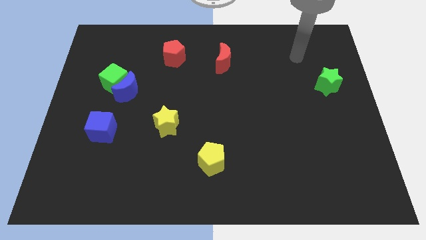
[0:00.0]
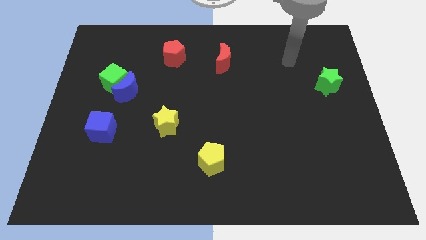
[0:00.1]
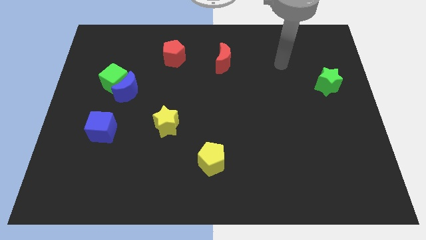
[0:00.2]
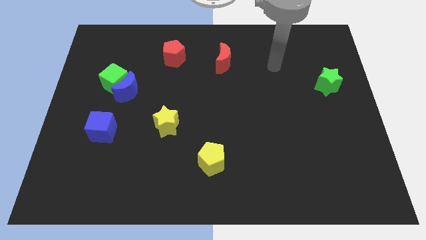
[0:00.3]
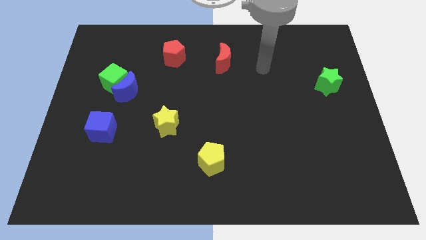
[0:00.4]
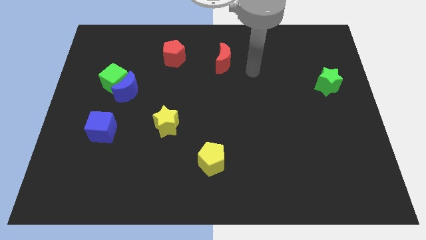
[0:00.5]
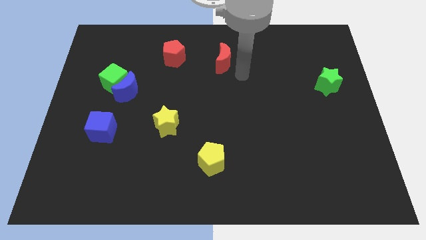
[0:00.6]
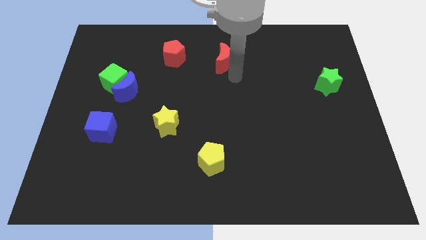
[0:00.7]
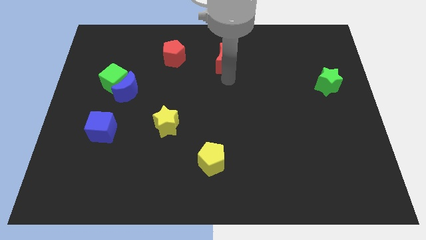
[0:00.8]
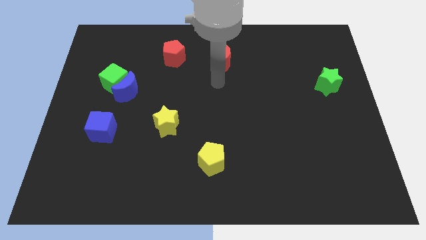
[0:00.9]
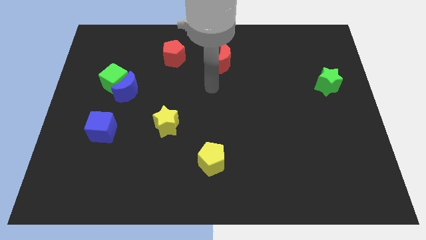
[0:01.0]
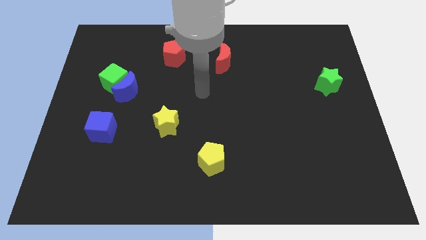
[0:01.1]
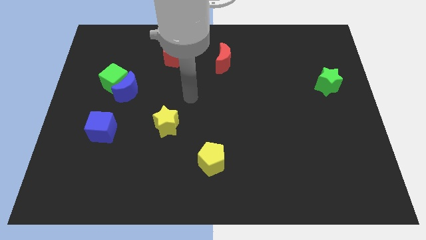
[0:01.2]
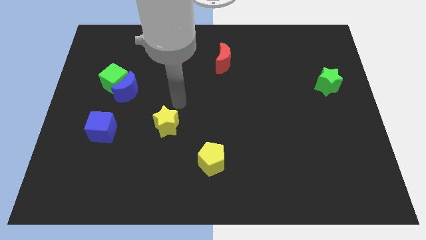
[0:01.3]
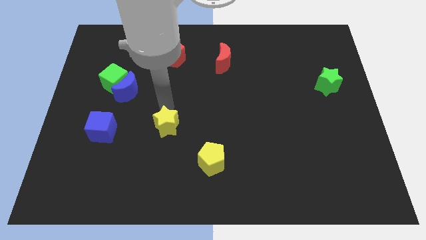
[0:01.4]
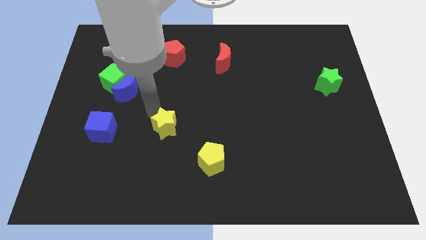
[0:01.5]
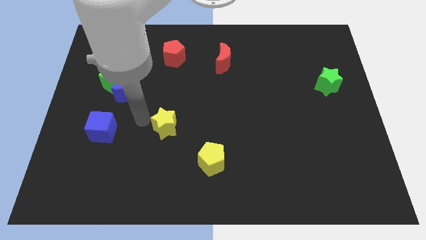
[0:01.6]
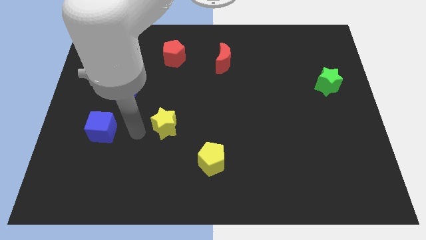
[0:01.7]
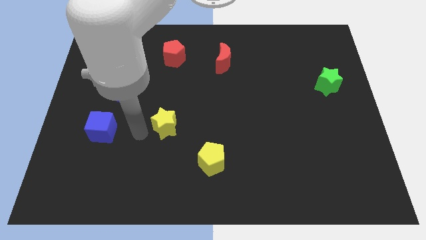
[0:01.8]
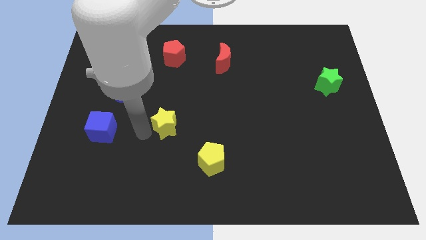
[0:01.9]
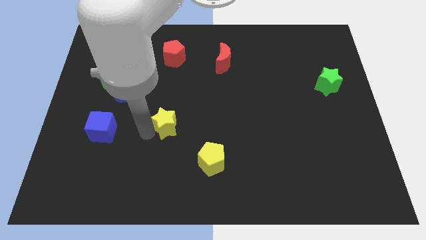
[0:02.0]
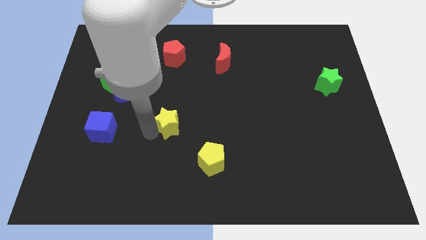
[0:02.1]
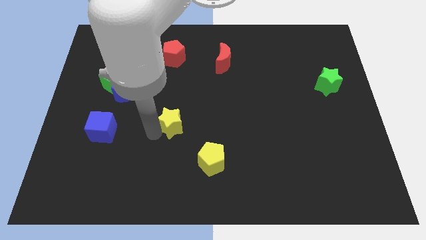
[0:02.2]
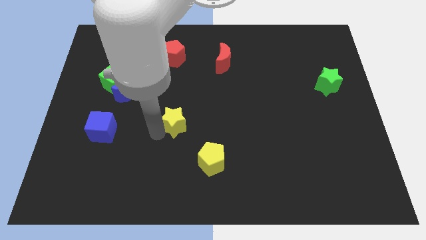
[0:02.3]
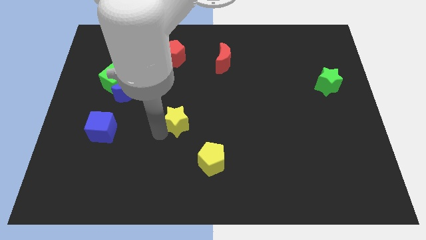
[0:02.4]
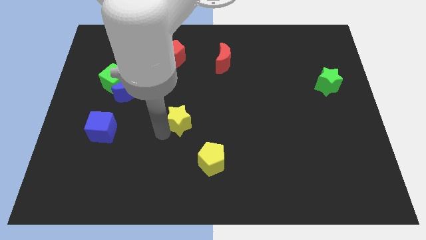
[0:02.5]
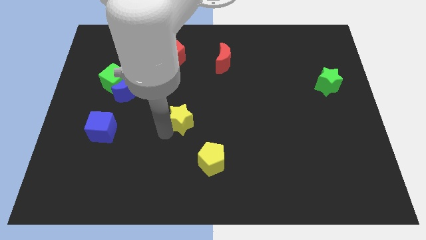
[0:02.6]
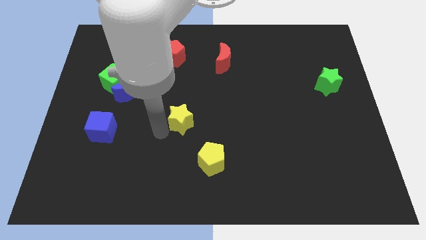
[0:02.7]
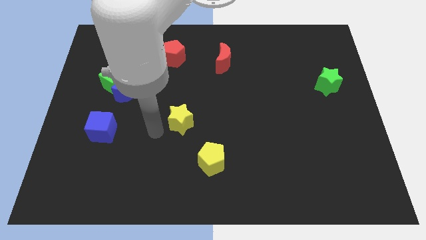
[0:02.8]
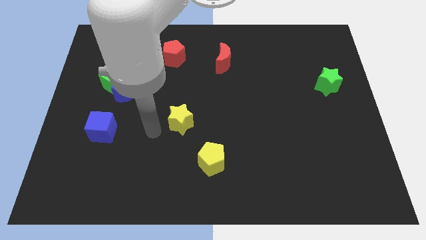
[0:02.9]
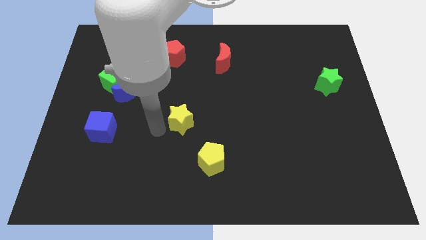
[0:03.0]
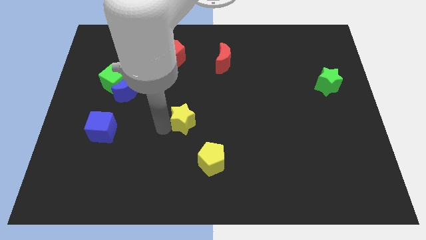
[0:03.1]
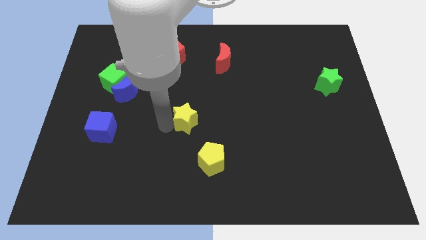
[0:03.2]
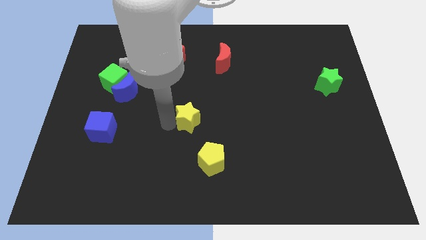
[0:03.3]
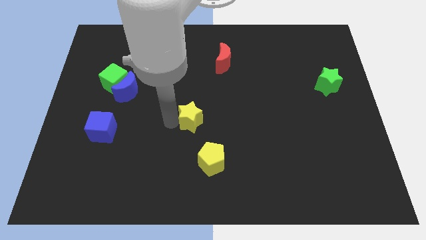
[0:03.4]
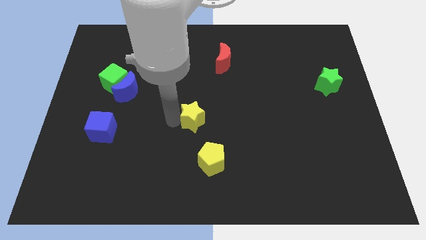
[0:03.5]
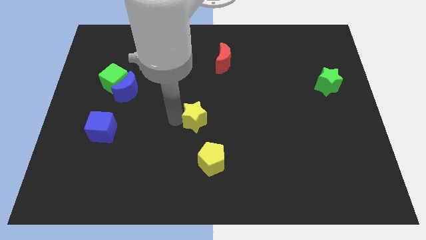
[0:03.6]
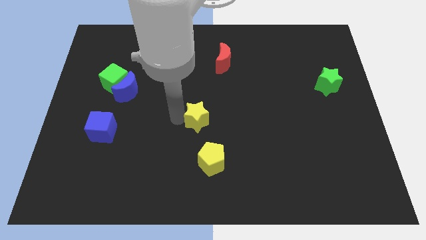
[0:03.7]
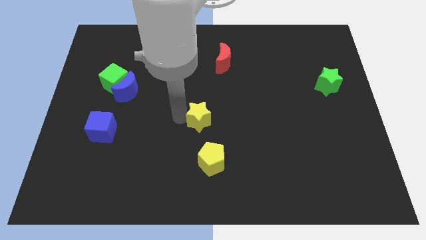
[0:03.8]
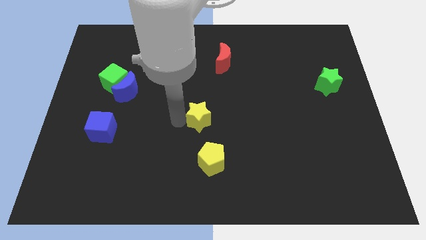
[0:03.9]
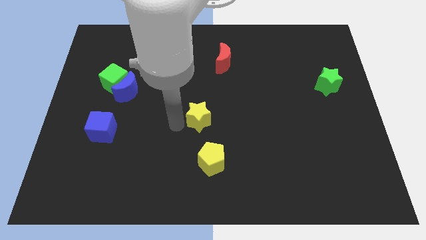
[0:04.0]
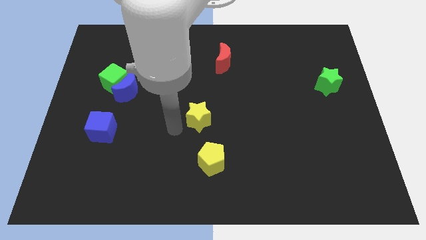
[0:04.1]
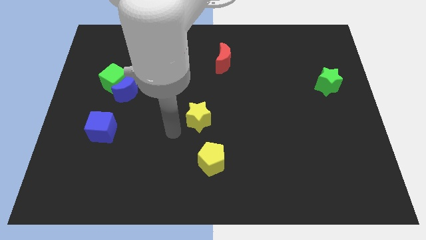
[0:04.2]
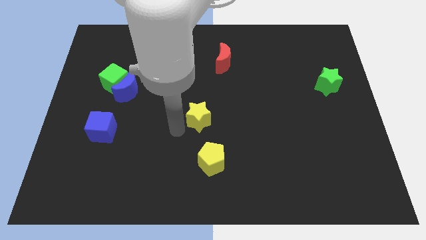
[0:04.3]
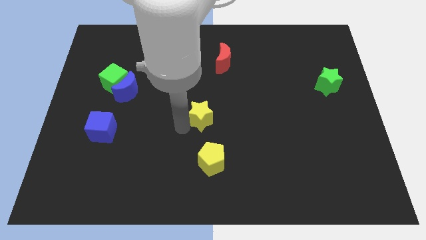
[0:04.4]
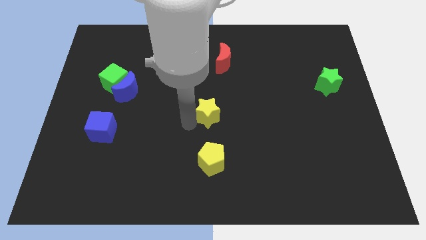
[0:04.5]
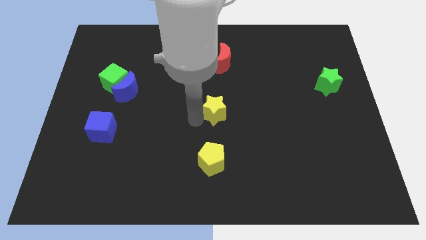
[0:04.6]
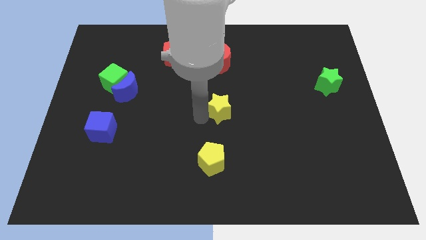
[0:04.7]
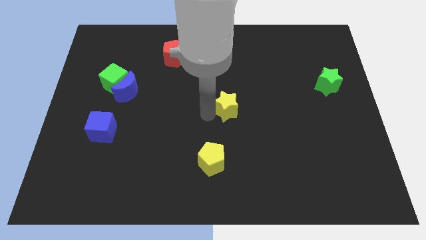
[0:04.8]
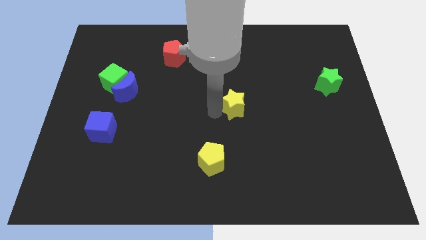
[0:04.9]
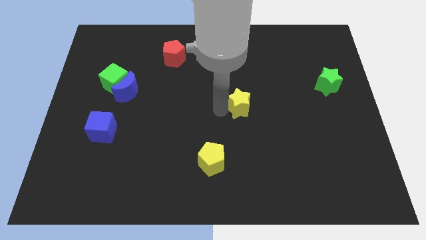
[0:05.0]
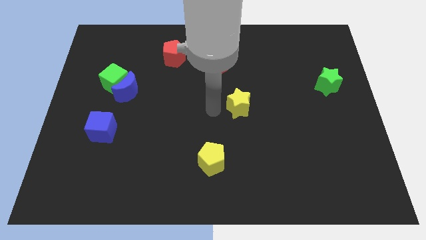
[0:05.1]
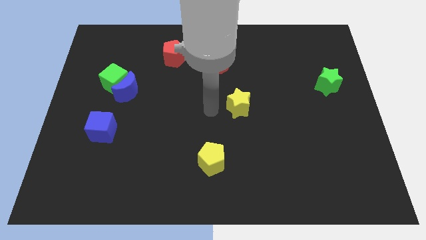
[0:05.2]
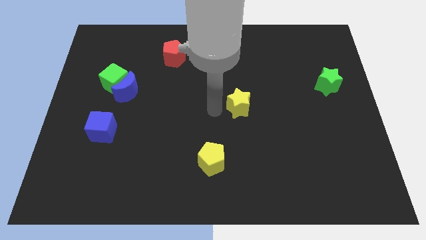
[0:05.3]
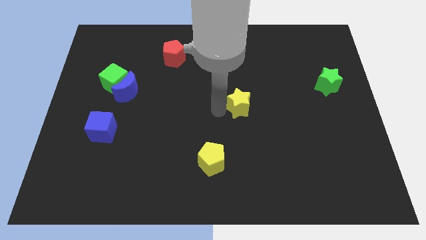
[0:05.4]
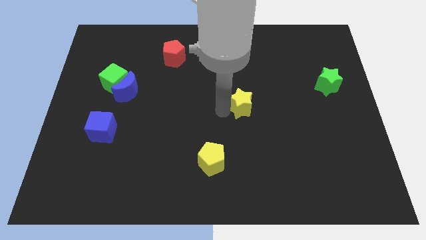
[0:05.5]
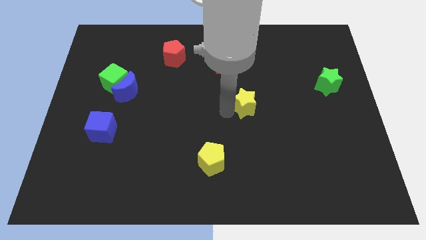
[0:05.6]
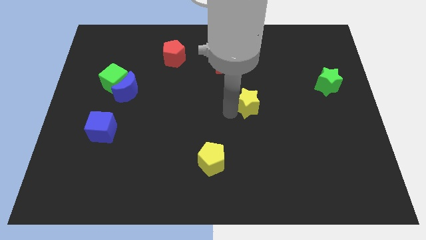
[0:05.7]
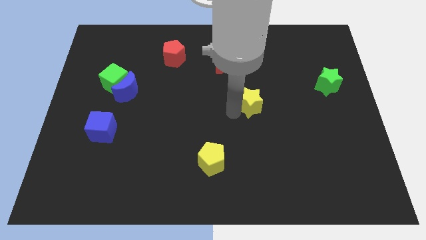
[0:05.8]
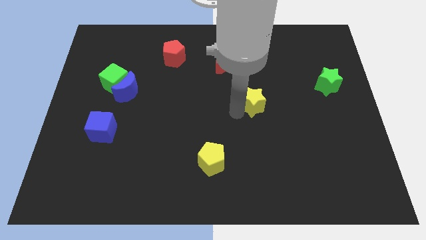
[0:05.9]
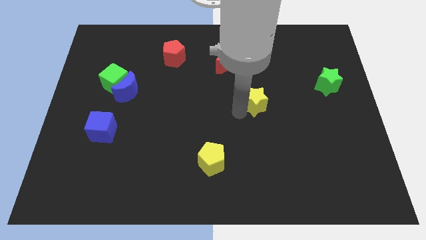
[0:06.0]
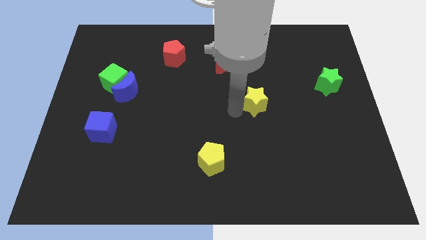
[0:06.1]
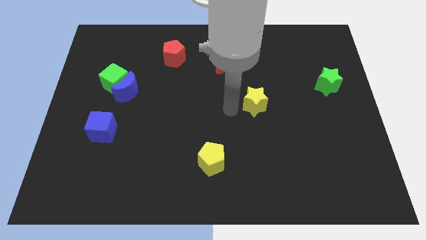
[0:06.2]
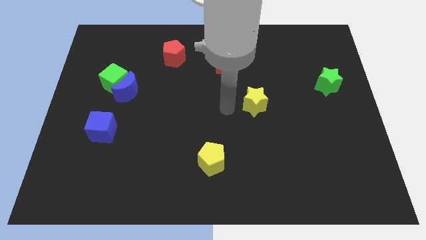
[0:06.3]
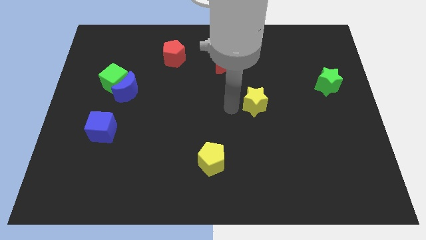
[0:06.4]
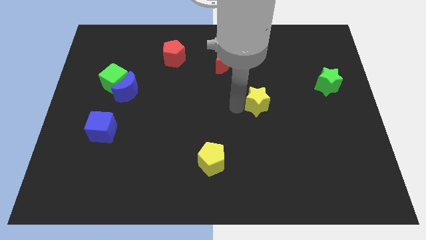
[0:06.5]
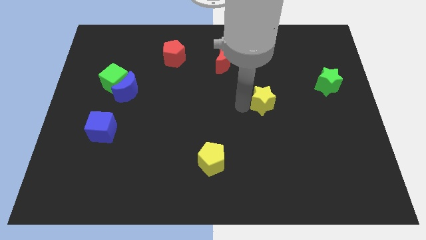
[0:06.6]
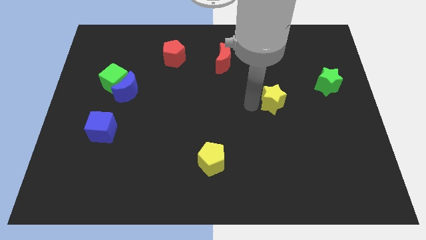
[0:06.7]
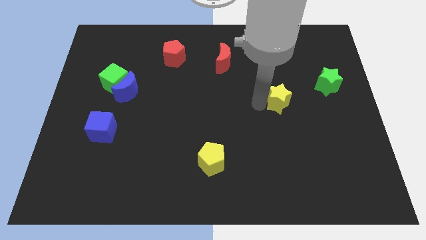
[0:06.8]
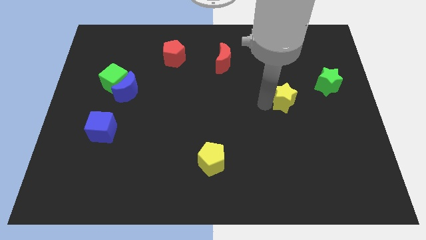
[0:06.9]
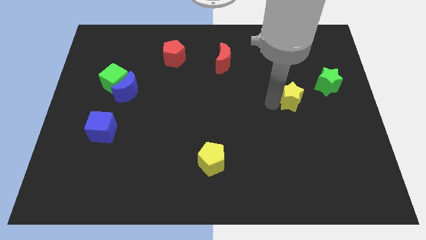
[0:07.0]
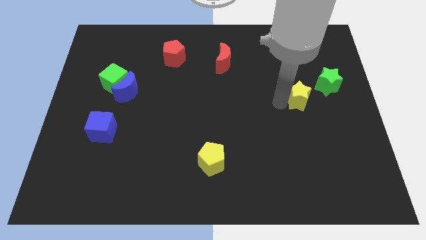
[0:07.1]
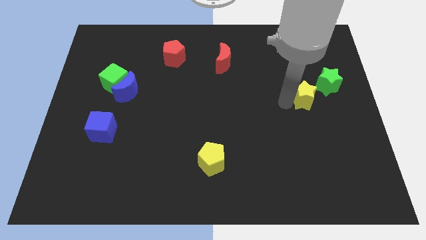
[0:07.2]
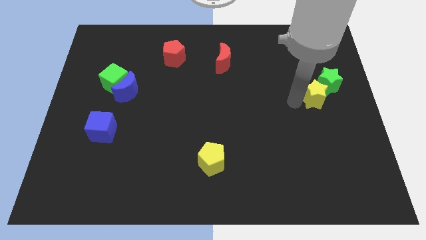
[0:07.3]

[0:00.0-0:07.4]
move the yellow star next to the green star
